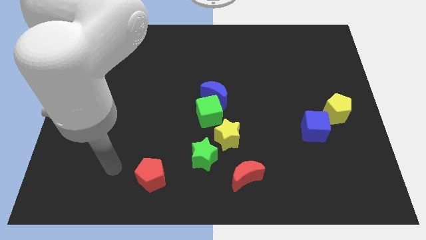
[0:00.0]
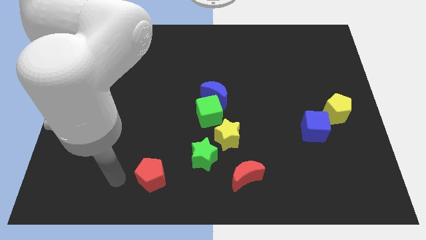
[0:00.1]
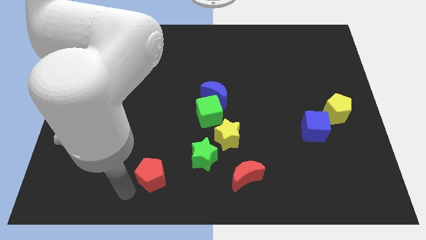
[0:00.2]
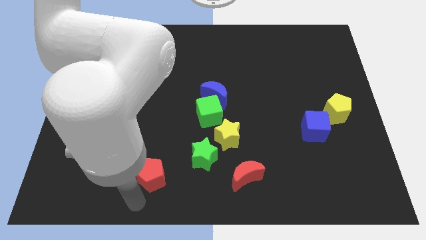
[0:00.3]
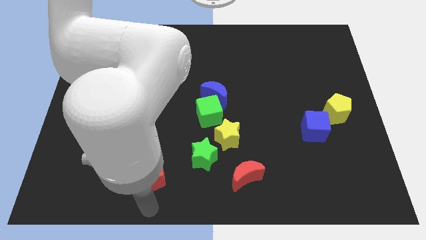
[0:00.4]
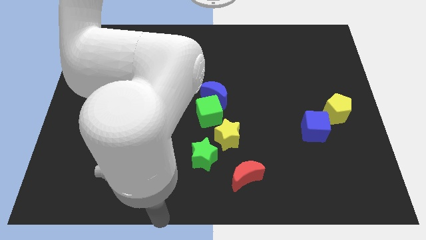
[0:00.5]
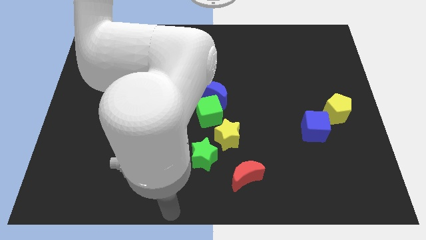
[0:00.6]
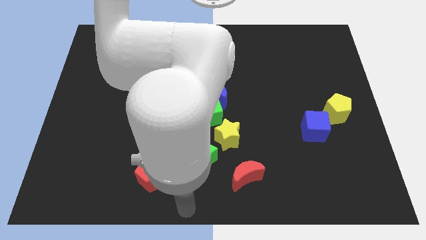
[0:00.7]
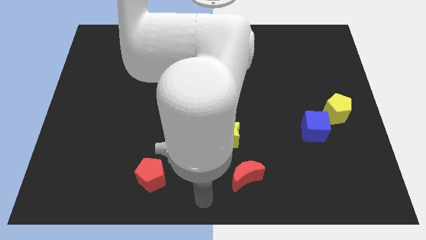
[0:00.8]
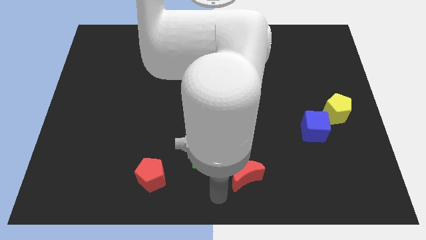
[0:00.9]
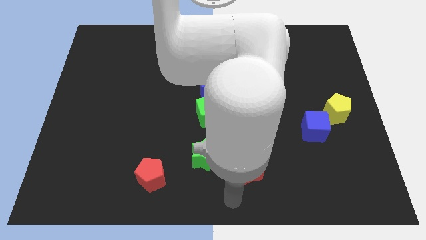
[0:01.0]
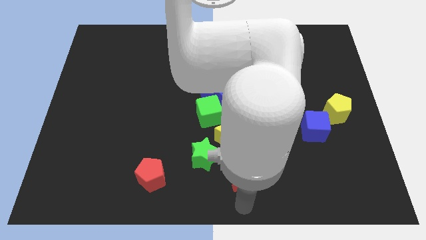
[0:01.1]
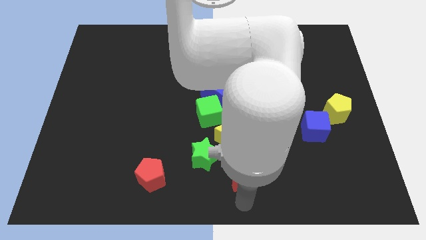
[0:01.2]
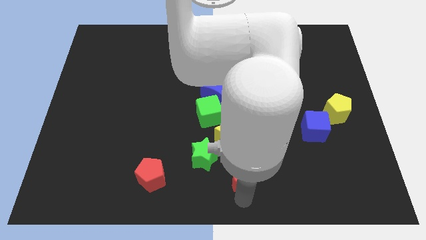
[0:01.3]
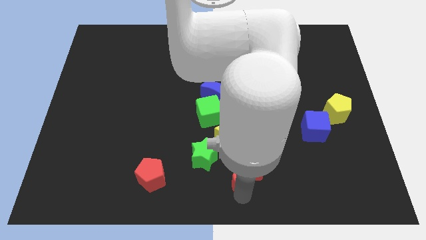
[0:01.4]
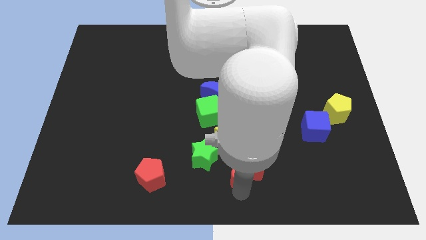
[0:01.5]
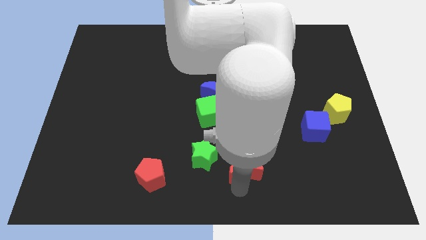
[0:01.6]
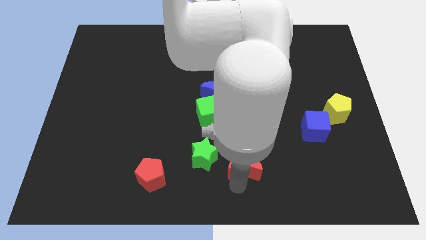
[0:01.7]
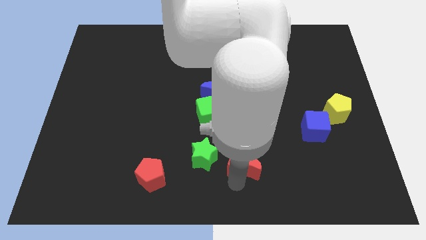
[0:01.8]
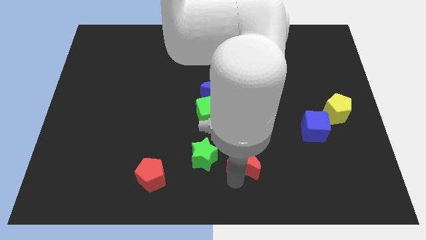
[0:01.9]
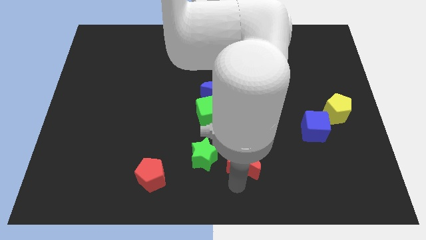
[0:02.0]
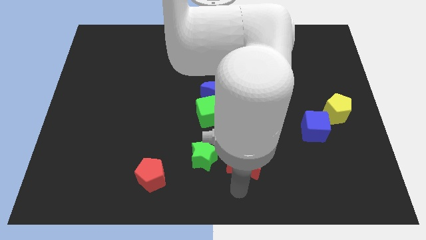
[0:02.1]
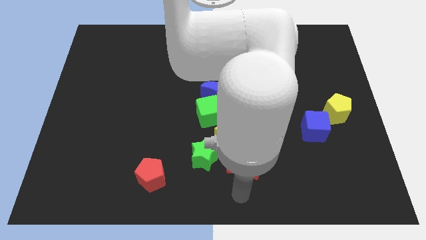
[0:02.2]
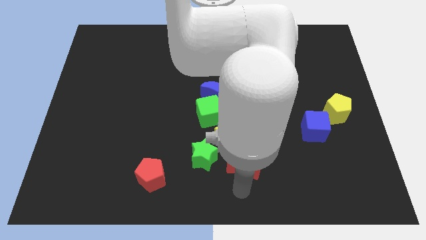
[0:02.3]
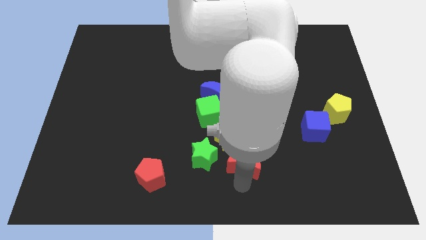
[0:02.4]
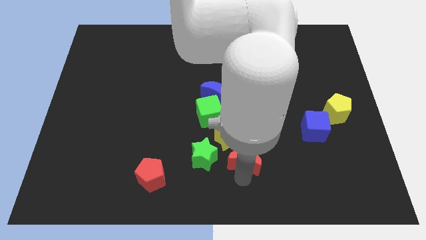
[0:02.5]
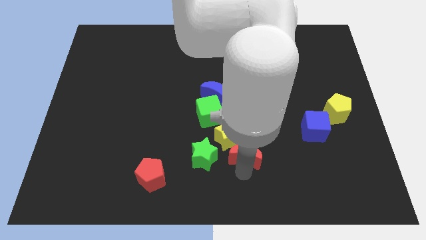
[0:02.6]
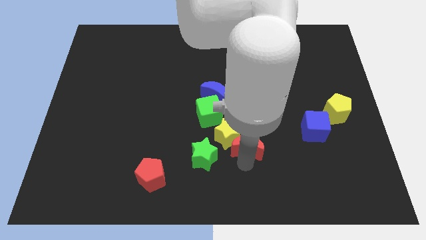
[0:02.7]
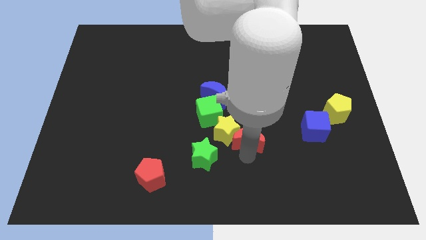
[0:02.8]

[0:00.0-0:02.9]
move the red moon upwards somewhat

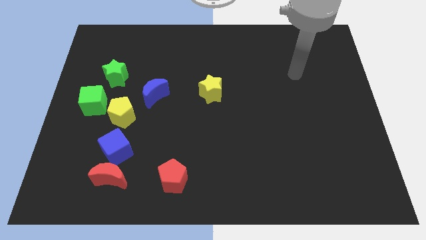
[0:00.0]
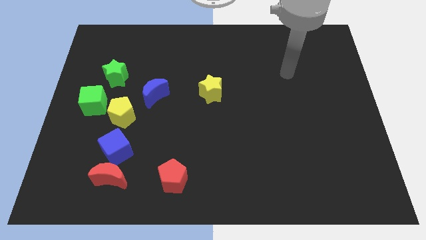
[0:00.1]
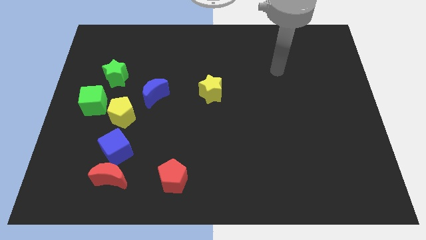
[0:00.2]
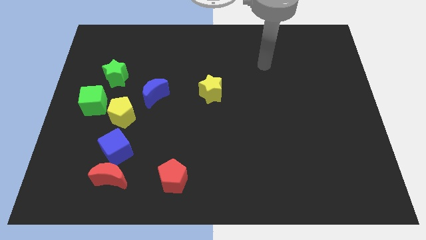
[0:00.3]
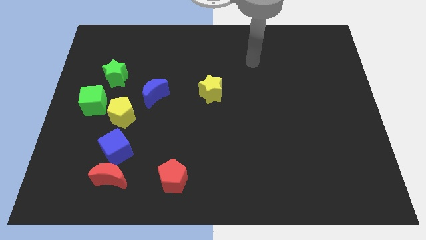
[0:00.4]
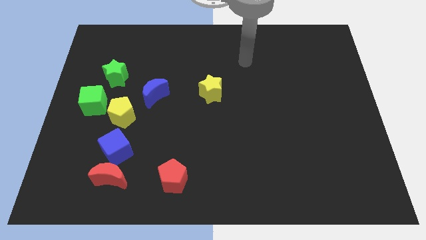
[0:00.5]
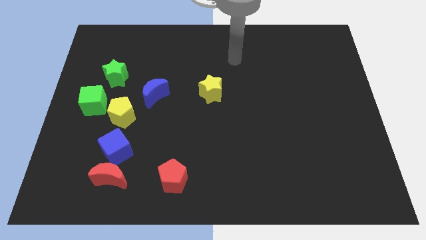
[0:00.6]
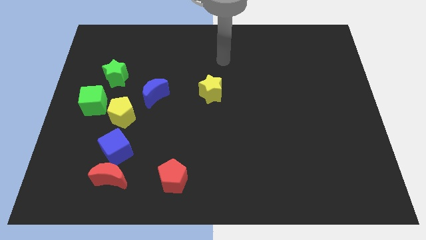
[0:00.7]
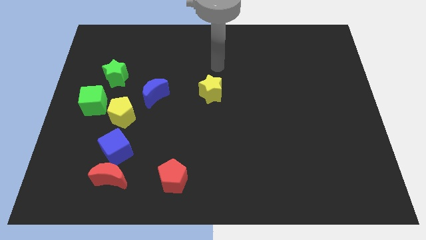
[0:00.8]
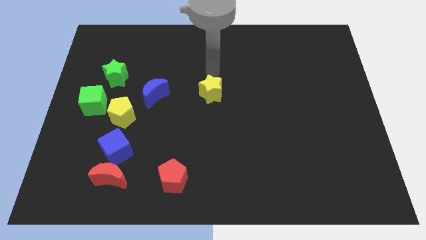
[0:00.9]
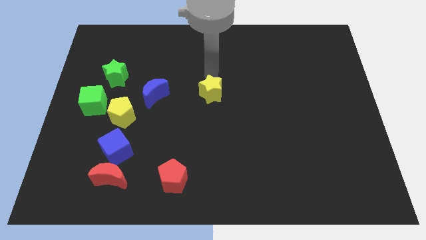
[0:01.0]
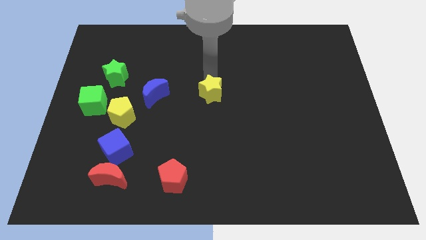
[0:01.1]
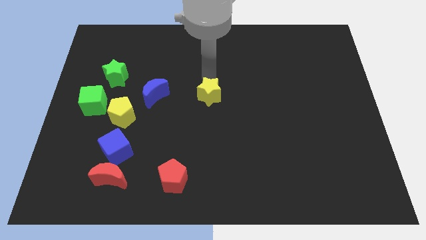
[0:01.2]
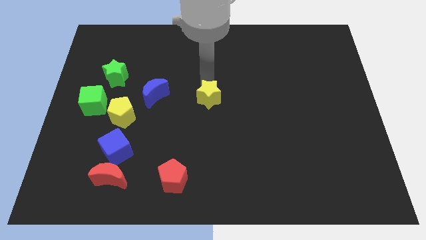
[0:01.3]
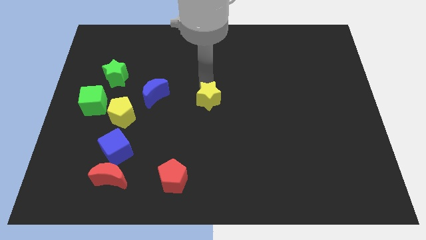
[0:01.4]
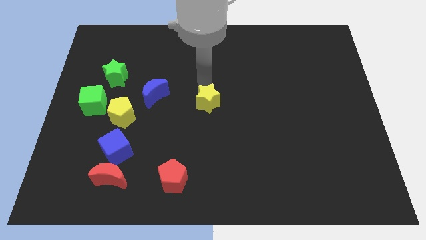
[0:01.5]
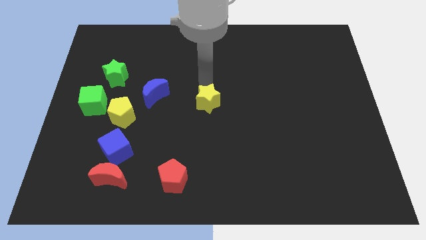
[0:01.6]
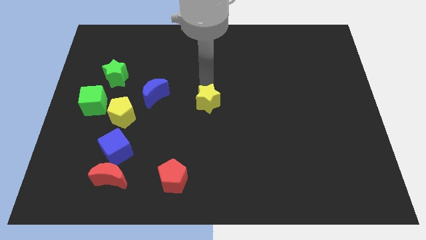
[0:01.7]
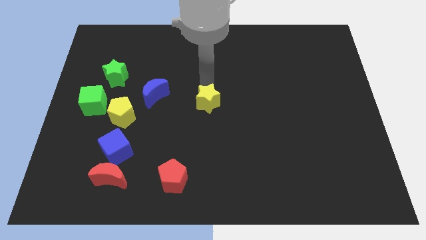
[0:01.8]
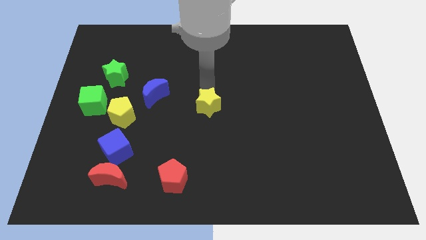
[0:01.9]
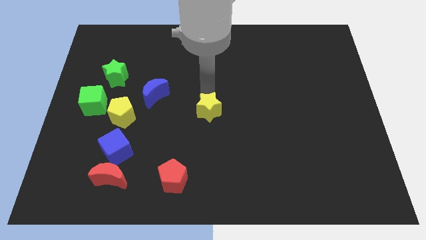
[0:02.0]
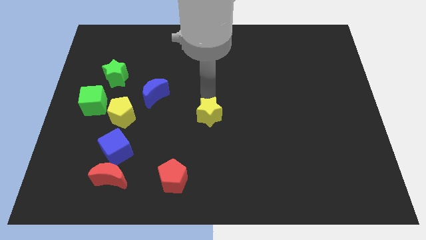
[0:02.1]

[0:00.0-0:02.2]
slide the yellow star a little bit downwards

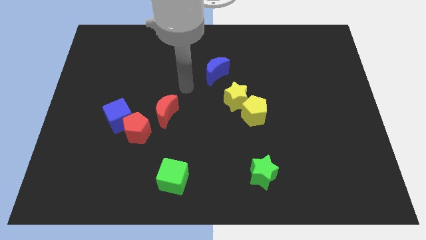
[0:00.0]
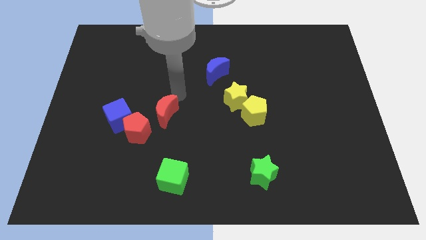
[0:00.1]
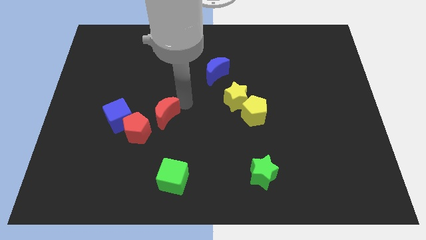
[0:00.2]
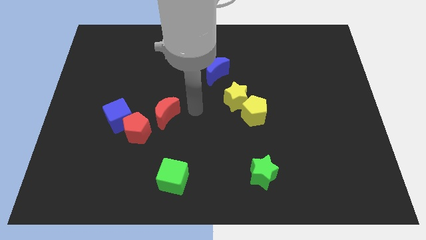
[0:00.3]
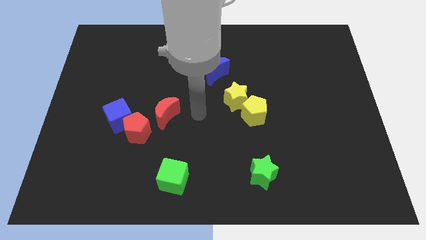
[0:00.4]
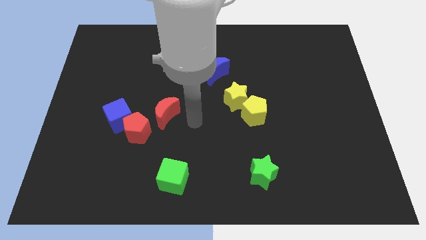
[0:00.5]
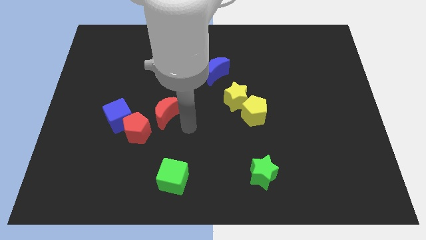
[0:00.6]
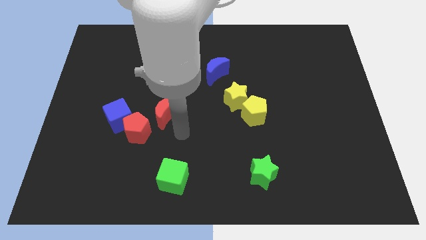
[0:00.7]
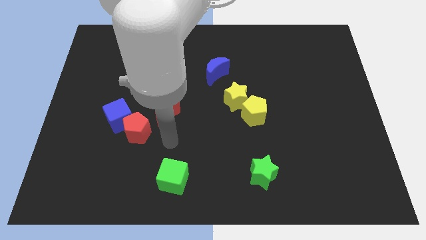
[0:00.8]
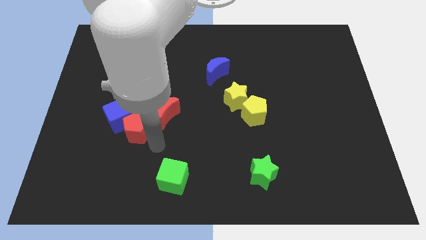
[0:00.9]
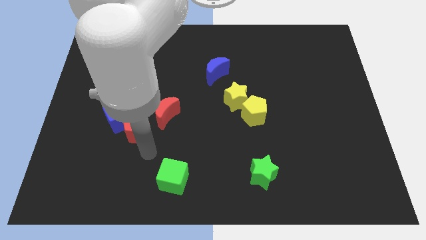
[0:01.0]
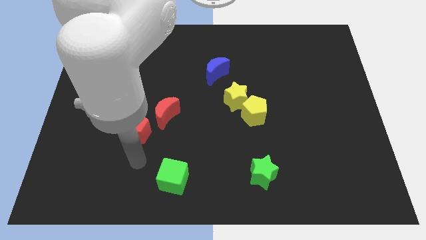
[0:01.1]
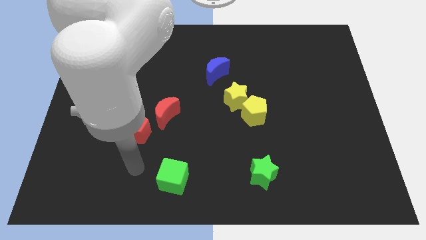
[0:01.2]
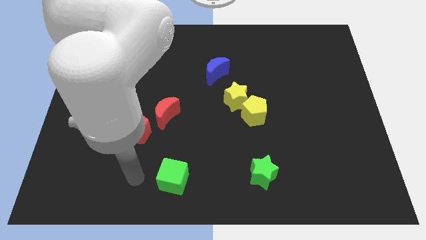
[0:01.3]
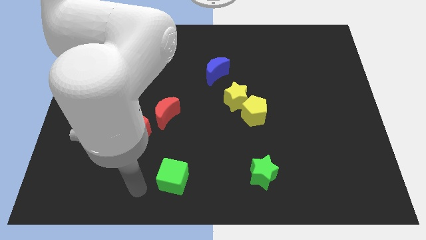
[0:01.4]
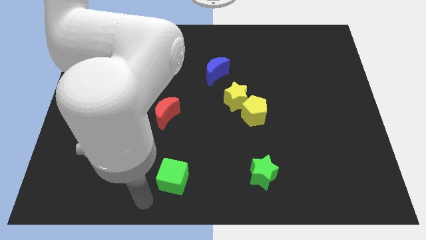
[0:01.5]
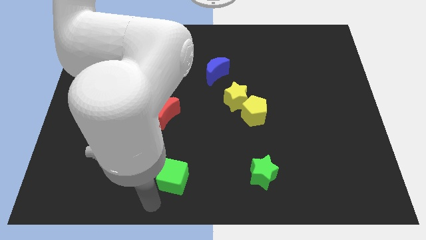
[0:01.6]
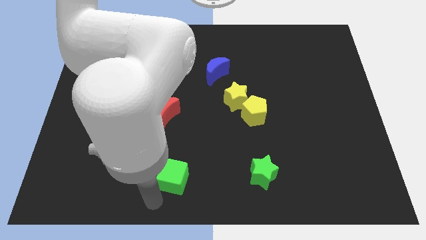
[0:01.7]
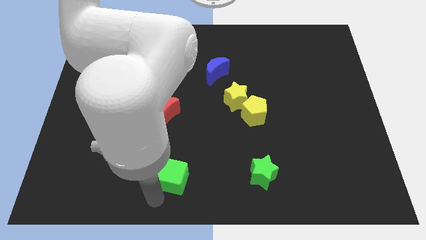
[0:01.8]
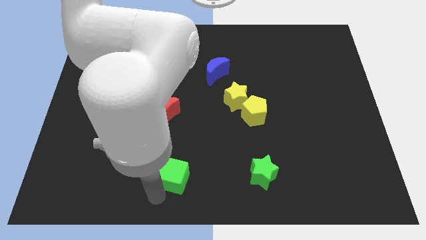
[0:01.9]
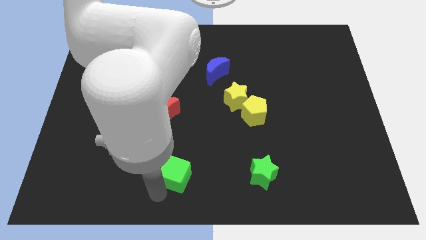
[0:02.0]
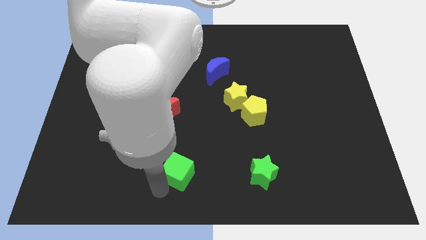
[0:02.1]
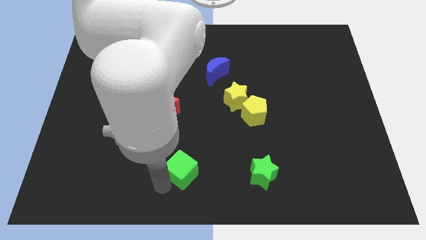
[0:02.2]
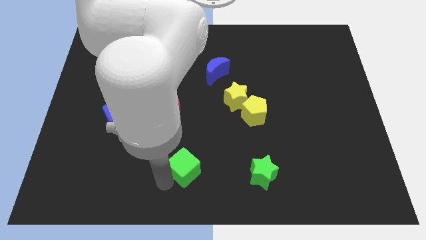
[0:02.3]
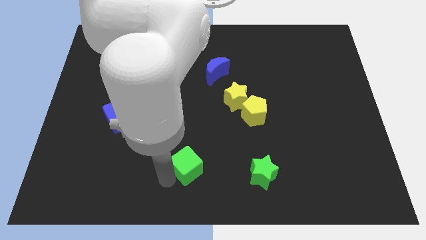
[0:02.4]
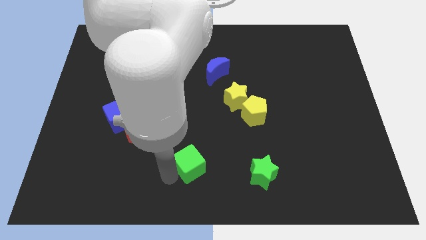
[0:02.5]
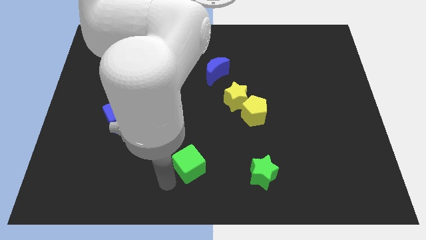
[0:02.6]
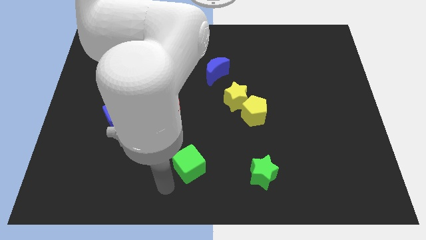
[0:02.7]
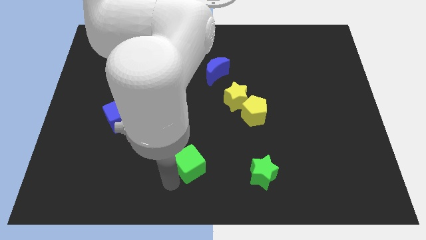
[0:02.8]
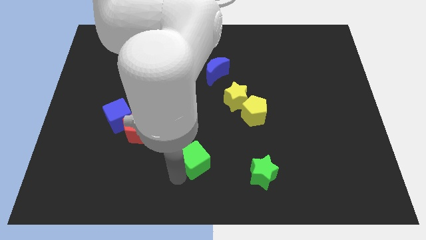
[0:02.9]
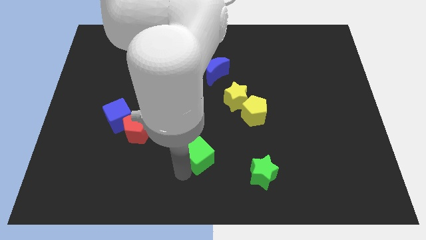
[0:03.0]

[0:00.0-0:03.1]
slide the green cube slightly up and then right
